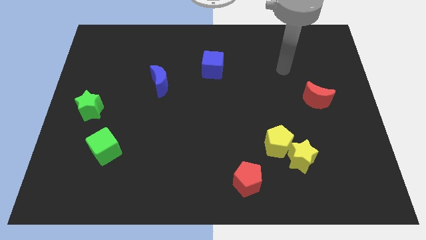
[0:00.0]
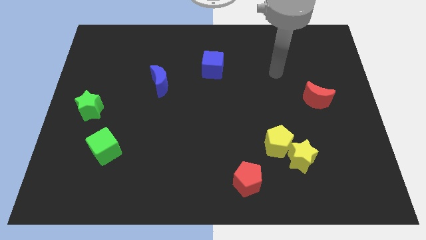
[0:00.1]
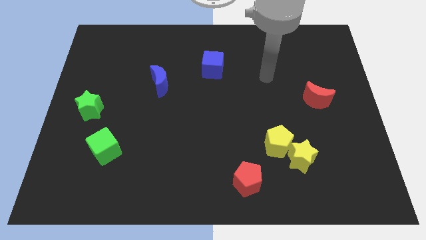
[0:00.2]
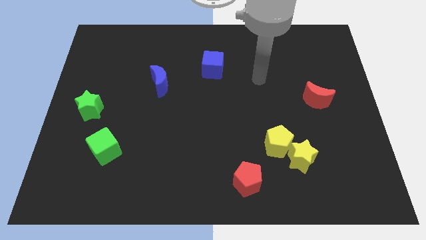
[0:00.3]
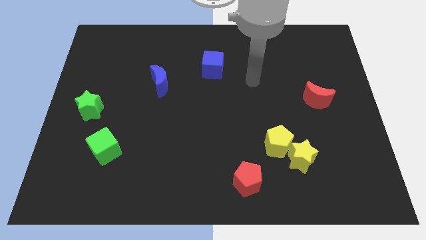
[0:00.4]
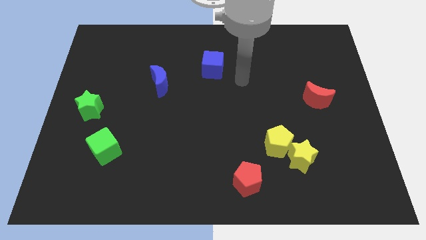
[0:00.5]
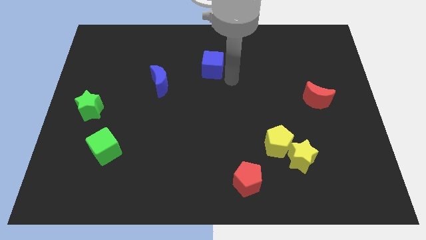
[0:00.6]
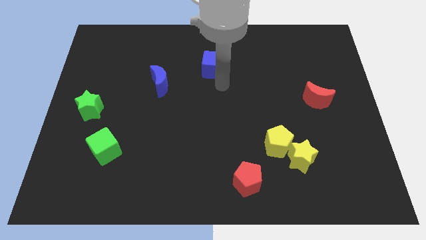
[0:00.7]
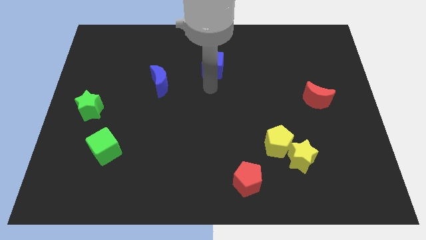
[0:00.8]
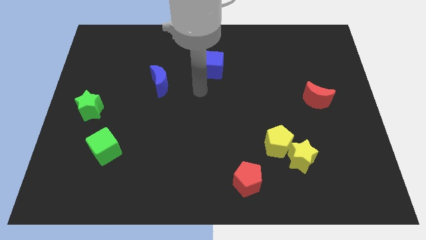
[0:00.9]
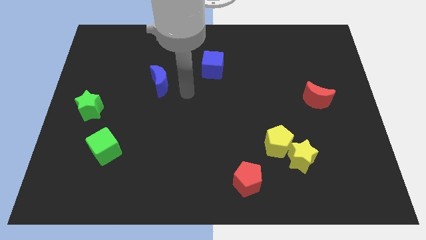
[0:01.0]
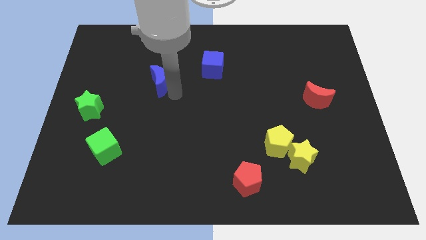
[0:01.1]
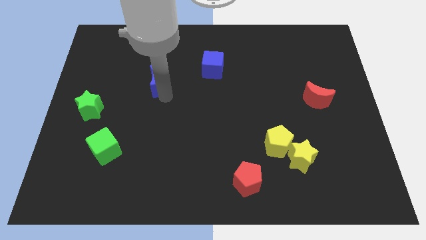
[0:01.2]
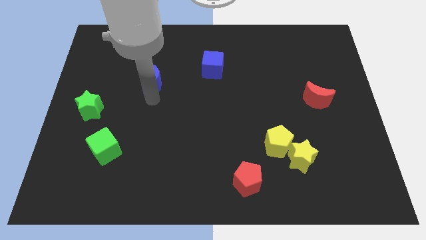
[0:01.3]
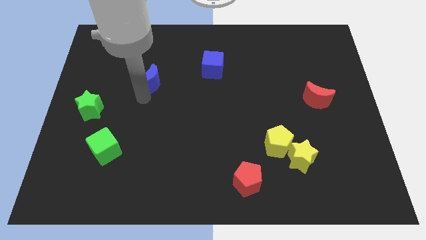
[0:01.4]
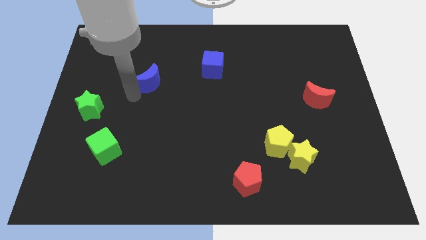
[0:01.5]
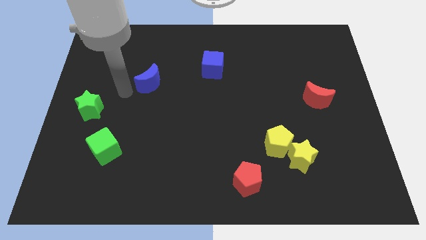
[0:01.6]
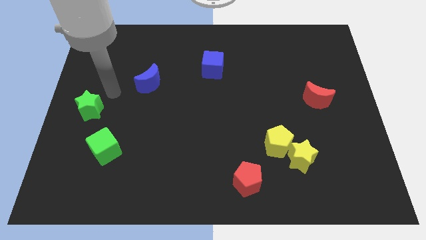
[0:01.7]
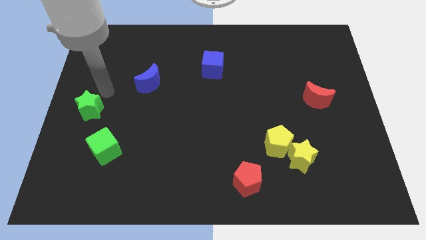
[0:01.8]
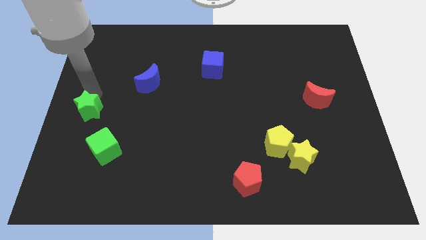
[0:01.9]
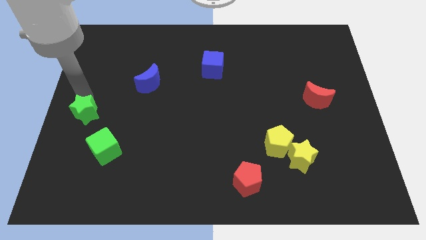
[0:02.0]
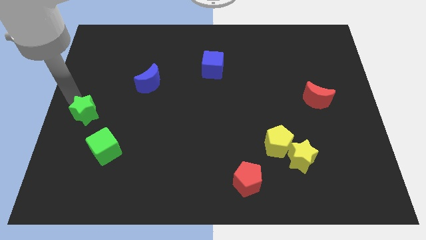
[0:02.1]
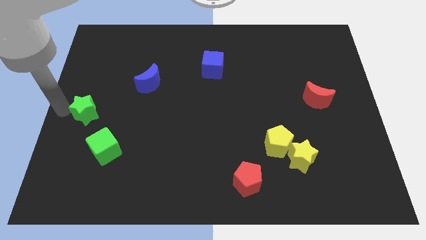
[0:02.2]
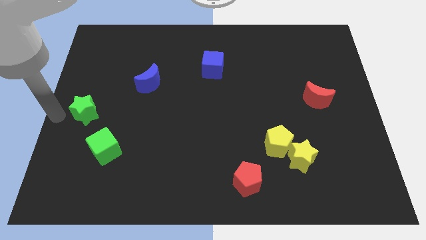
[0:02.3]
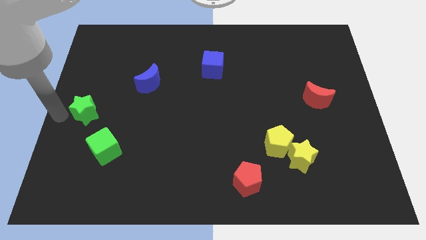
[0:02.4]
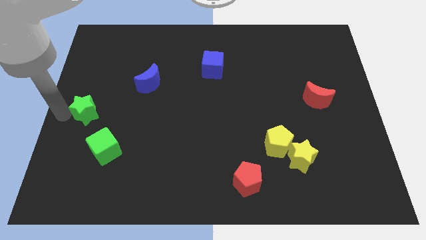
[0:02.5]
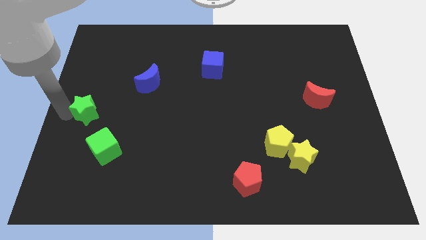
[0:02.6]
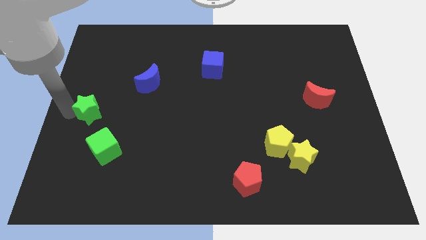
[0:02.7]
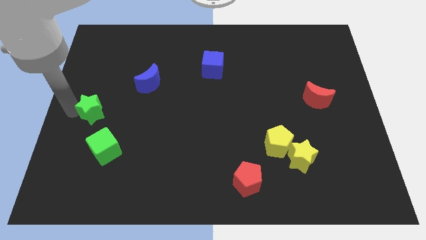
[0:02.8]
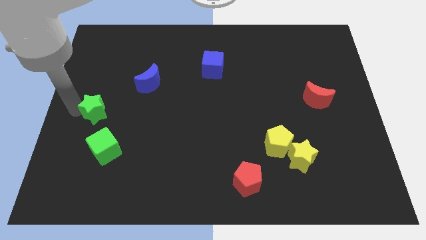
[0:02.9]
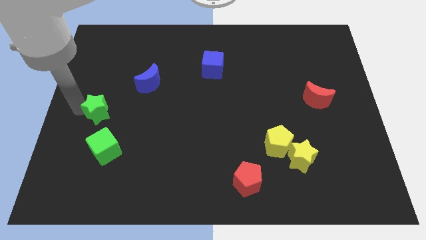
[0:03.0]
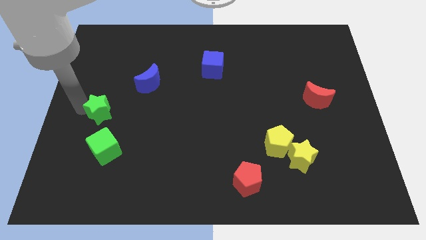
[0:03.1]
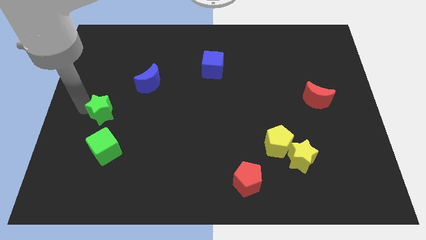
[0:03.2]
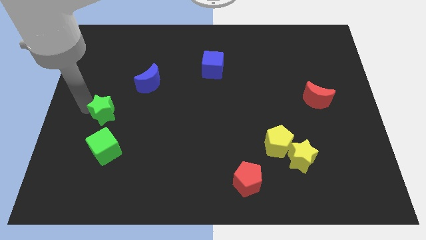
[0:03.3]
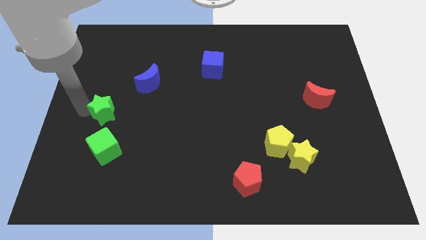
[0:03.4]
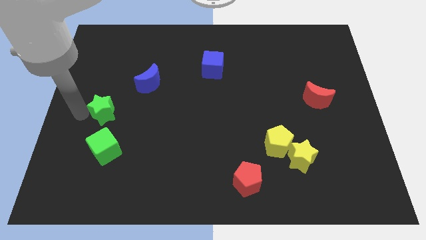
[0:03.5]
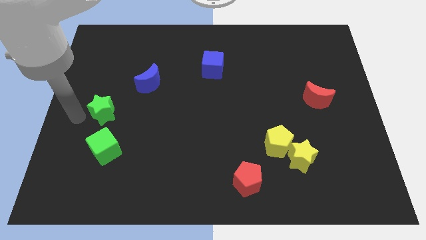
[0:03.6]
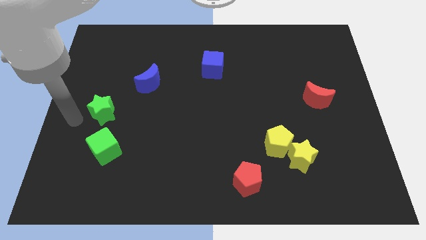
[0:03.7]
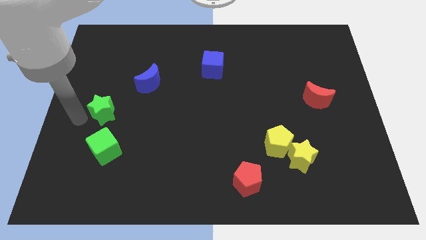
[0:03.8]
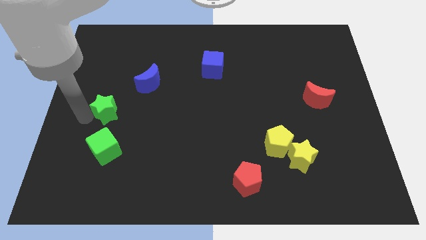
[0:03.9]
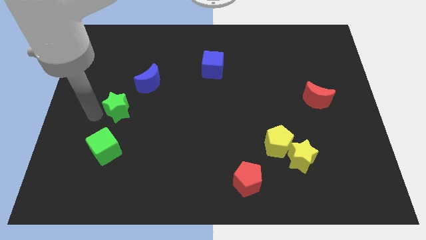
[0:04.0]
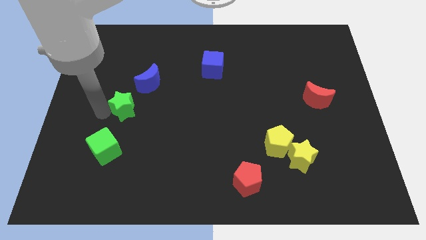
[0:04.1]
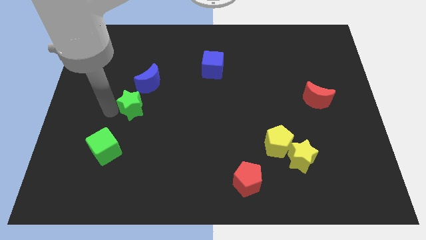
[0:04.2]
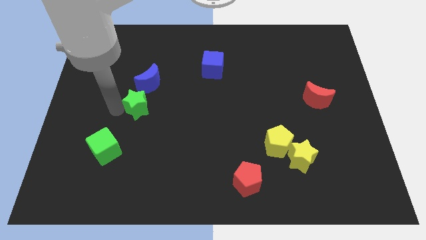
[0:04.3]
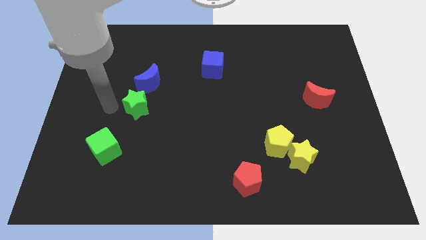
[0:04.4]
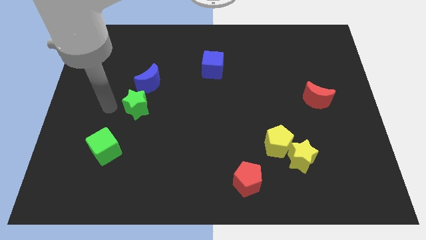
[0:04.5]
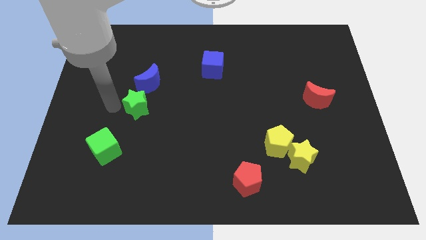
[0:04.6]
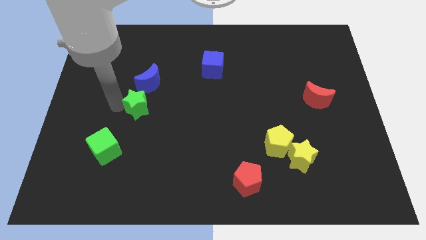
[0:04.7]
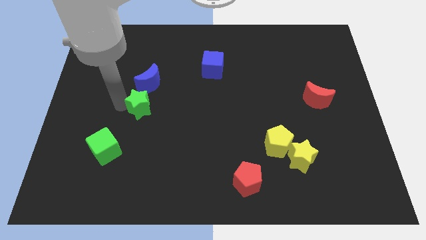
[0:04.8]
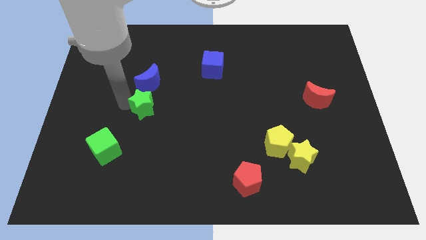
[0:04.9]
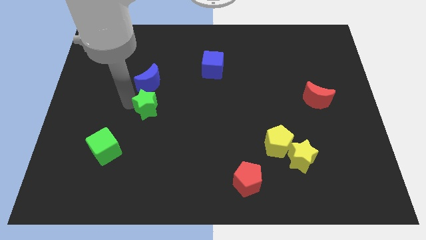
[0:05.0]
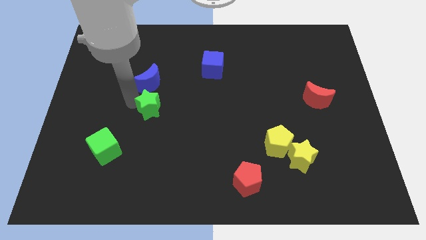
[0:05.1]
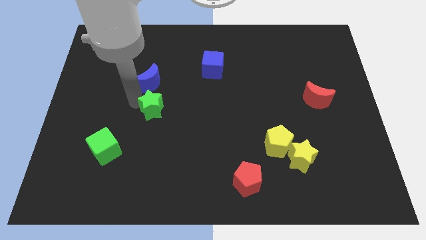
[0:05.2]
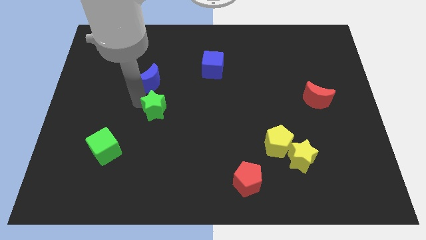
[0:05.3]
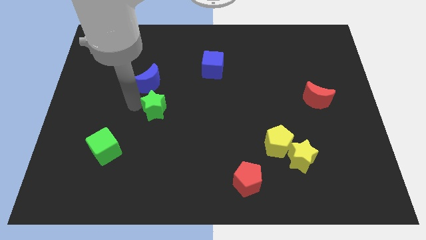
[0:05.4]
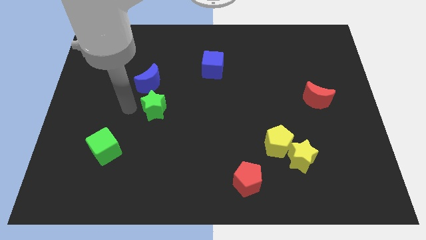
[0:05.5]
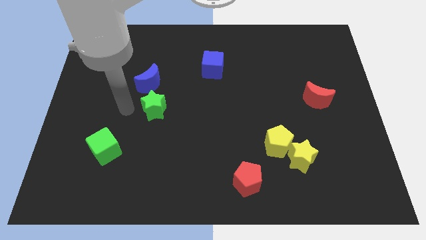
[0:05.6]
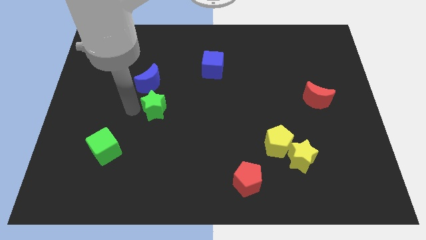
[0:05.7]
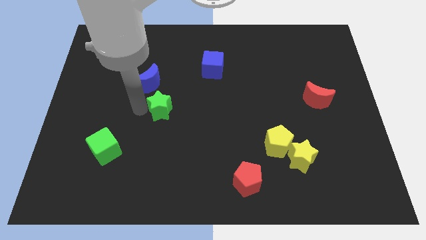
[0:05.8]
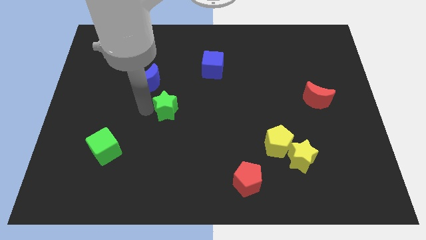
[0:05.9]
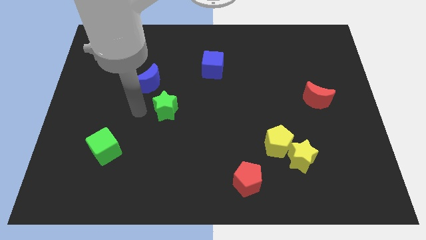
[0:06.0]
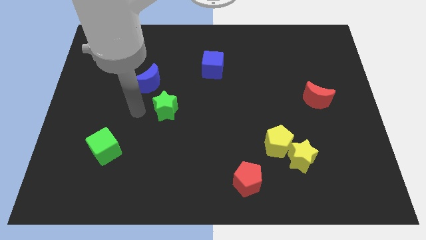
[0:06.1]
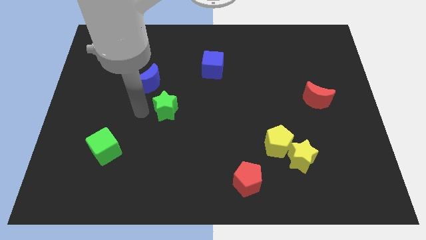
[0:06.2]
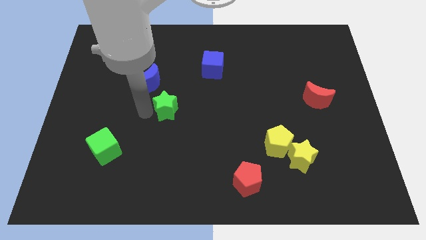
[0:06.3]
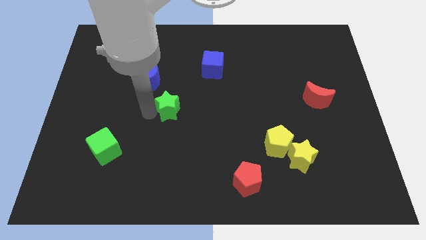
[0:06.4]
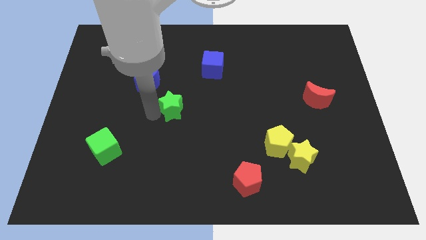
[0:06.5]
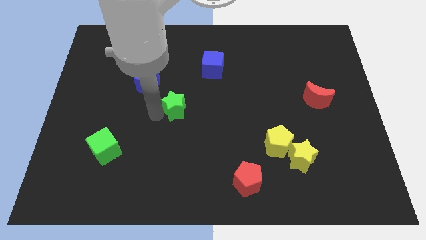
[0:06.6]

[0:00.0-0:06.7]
slide the green star right

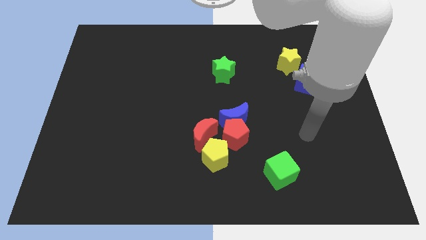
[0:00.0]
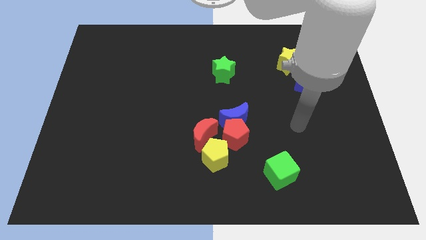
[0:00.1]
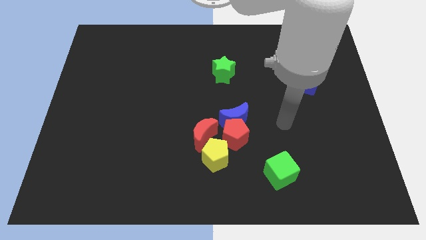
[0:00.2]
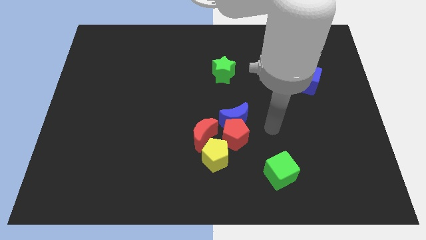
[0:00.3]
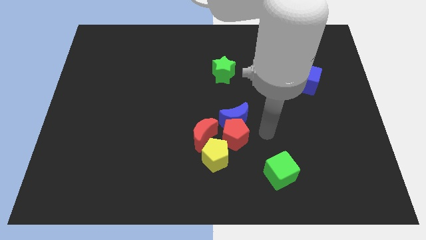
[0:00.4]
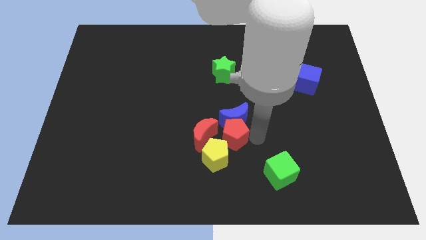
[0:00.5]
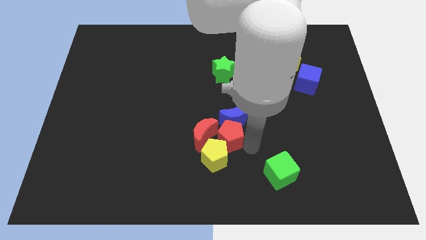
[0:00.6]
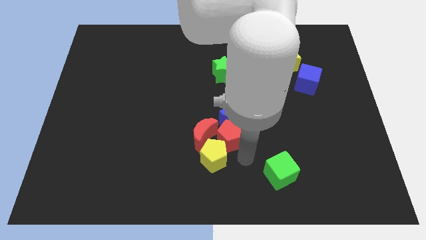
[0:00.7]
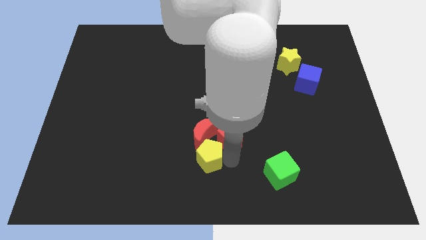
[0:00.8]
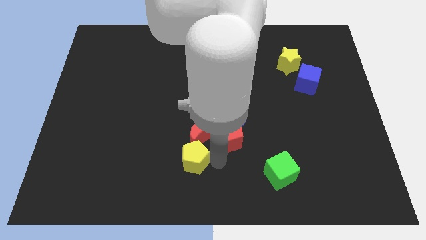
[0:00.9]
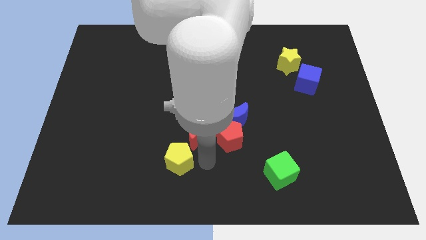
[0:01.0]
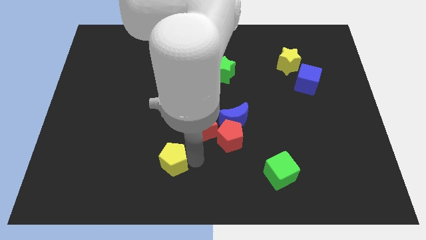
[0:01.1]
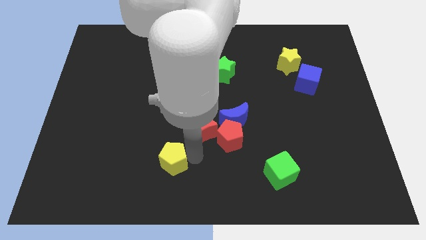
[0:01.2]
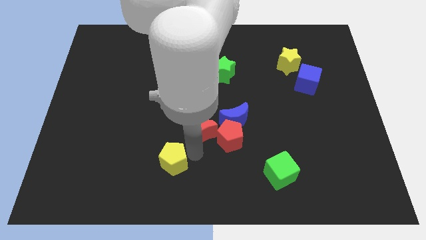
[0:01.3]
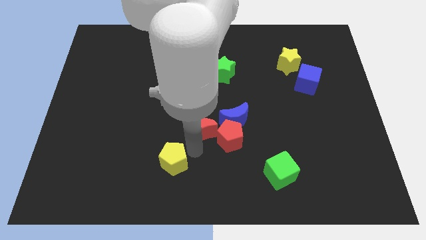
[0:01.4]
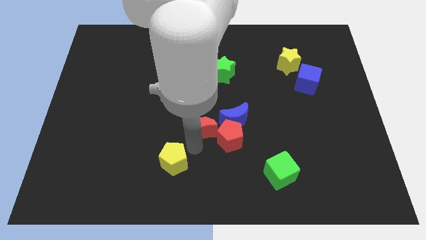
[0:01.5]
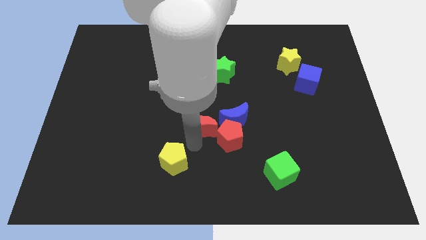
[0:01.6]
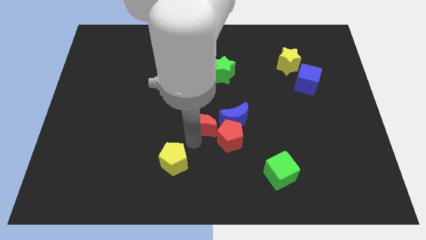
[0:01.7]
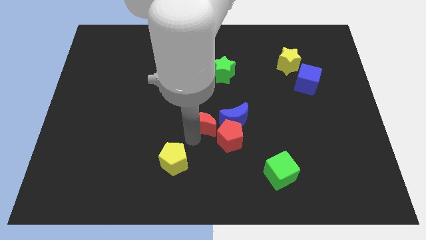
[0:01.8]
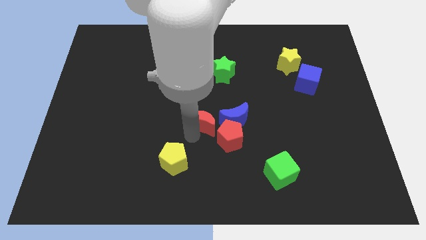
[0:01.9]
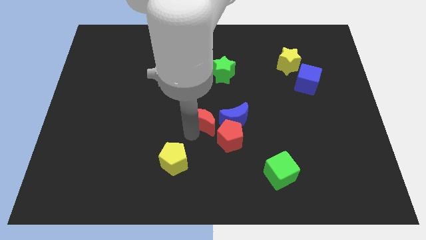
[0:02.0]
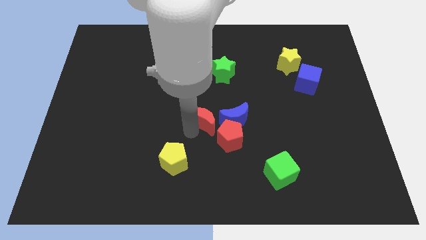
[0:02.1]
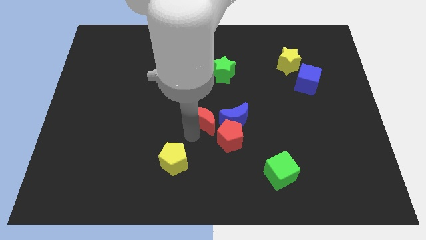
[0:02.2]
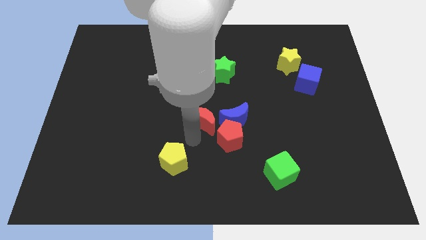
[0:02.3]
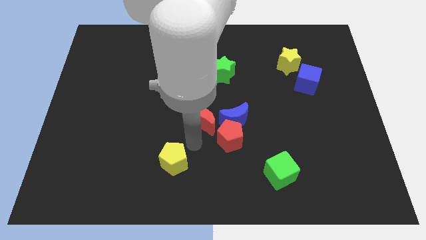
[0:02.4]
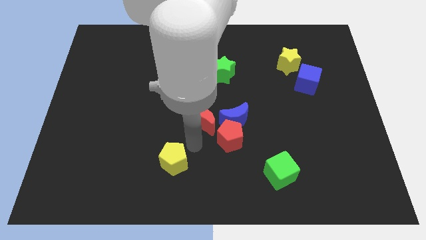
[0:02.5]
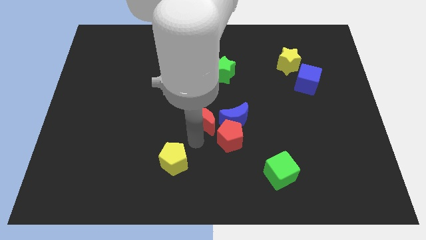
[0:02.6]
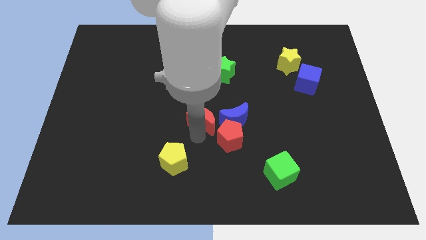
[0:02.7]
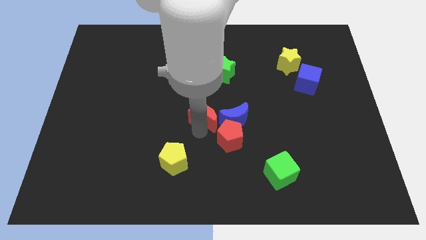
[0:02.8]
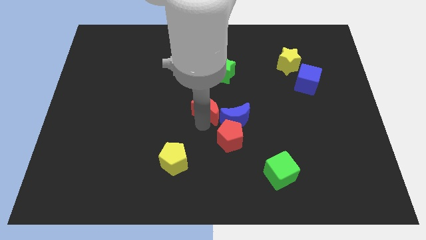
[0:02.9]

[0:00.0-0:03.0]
slightly slide the red moon up
